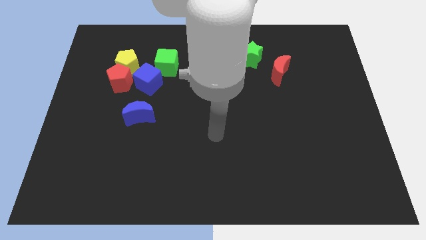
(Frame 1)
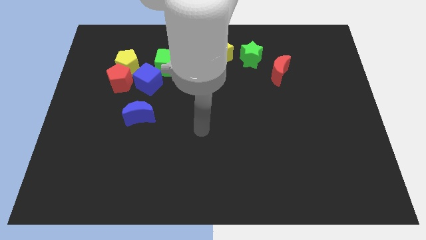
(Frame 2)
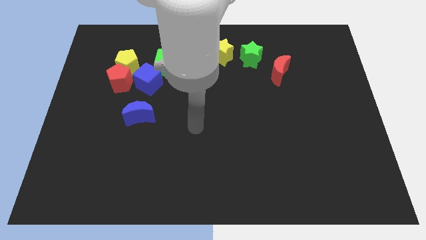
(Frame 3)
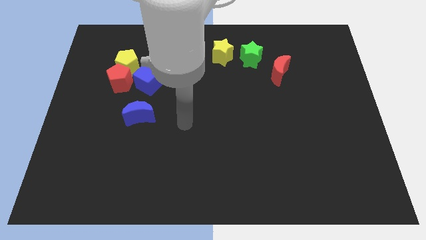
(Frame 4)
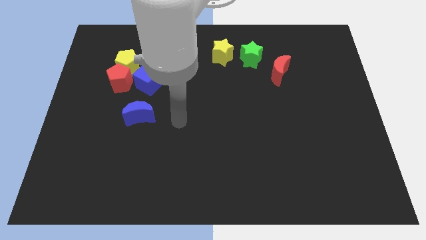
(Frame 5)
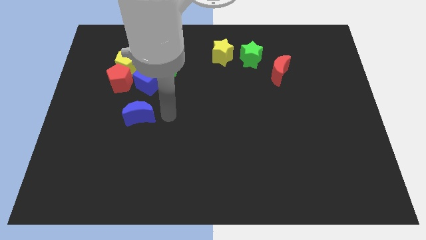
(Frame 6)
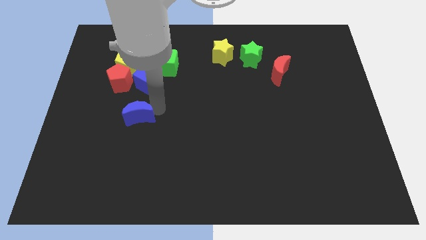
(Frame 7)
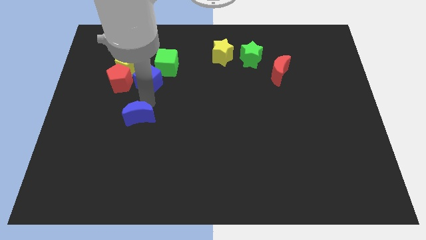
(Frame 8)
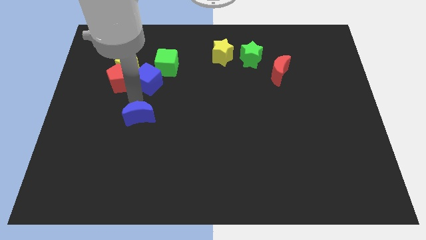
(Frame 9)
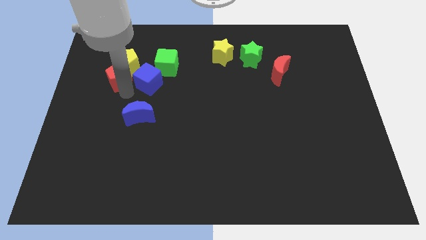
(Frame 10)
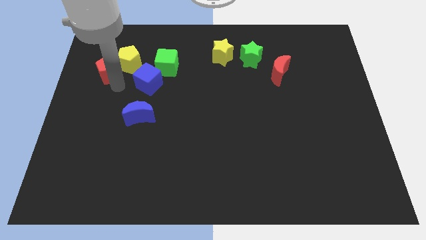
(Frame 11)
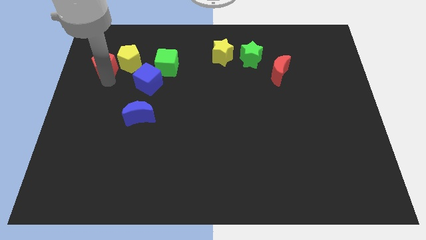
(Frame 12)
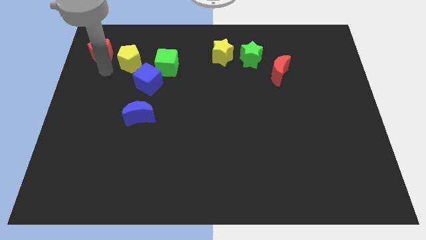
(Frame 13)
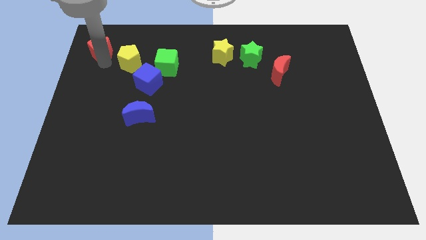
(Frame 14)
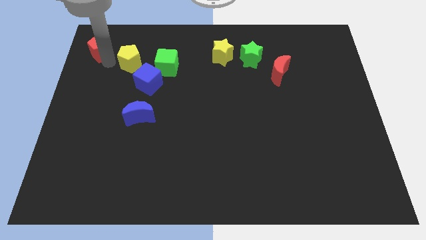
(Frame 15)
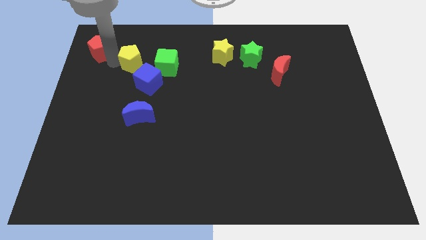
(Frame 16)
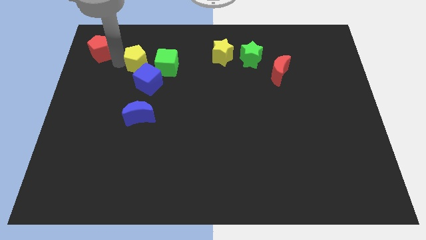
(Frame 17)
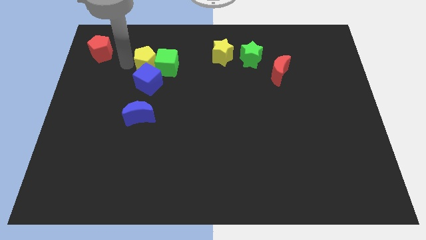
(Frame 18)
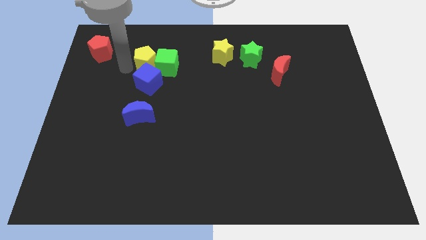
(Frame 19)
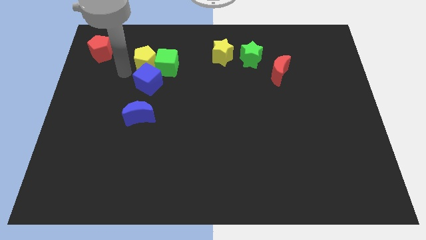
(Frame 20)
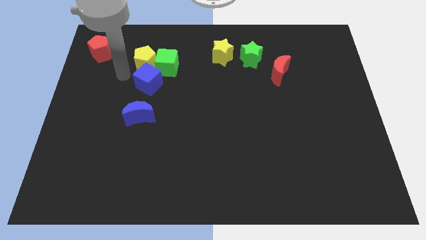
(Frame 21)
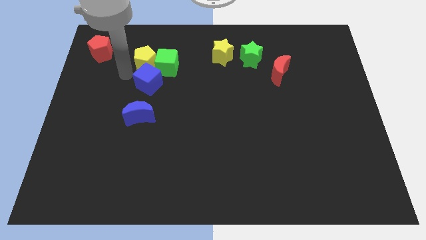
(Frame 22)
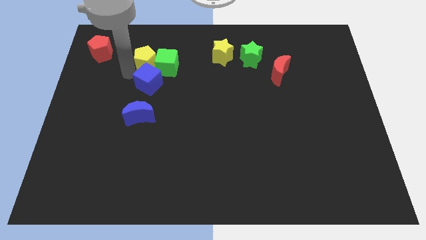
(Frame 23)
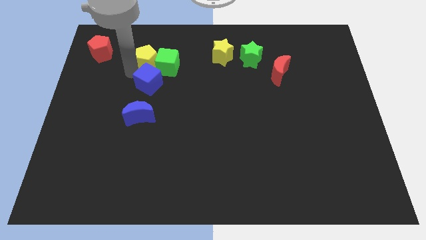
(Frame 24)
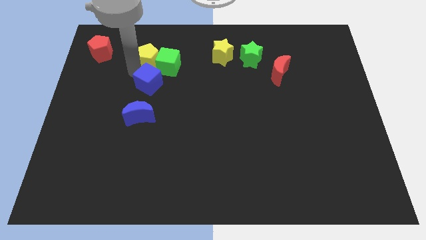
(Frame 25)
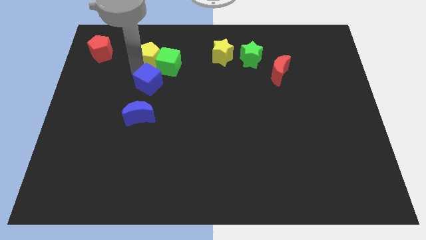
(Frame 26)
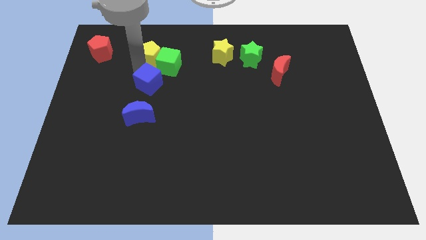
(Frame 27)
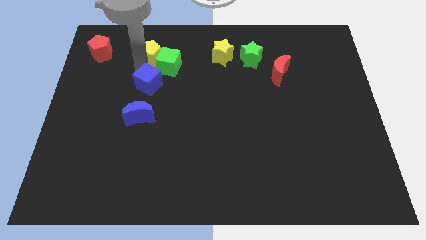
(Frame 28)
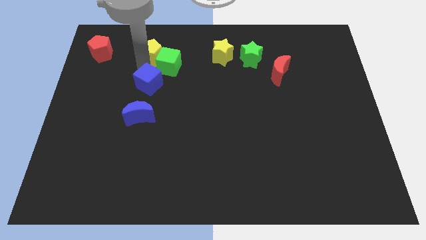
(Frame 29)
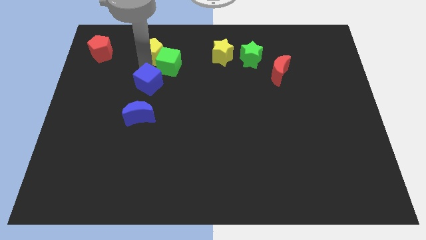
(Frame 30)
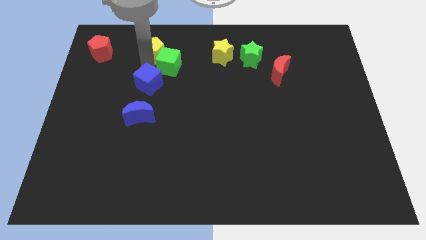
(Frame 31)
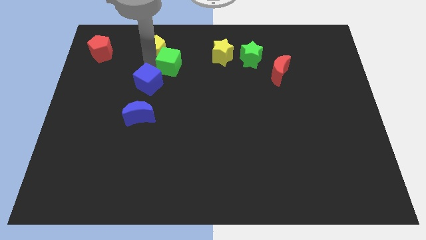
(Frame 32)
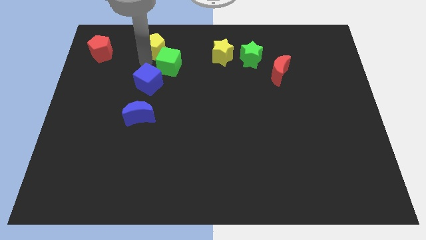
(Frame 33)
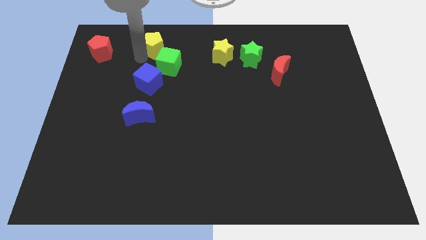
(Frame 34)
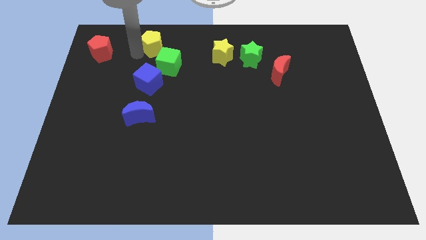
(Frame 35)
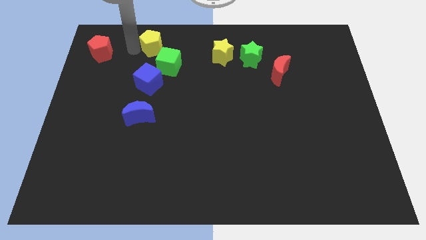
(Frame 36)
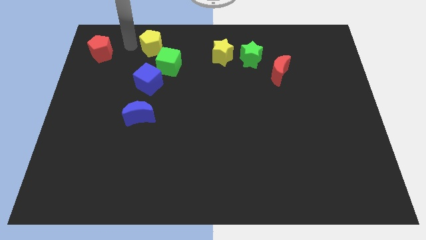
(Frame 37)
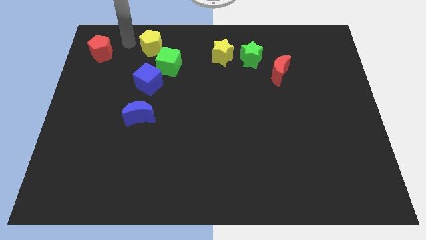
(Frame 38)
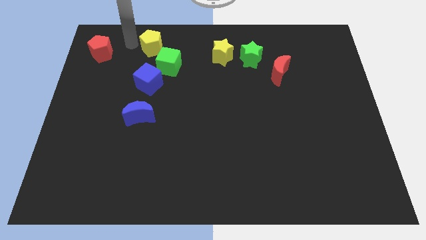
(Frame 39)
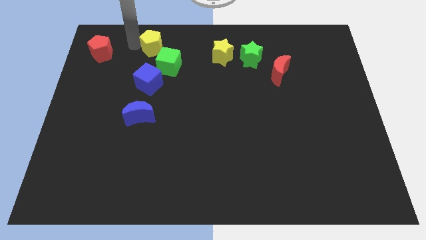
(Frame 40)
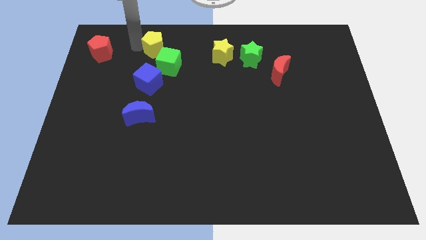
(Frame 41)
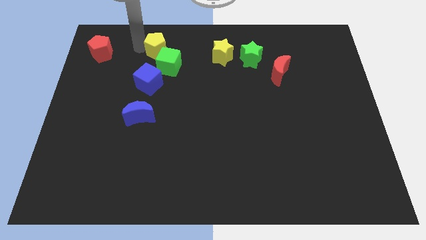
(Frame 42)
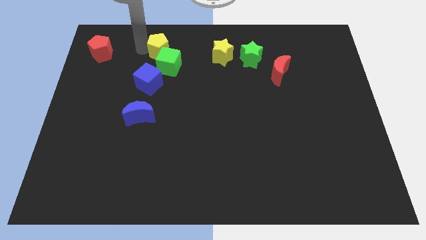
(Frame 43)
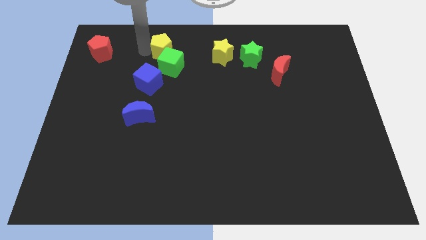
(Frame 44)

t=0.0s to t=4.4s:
slide the yellow pentagon somewhat to the right

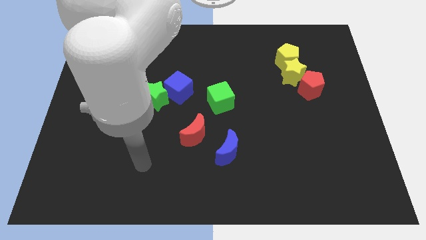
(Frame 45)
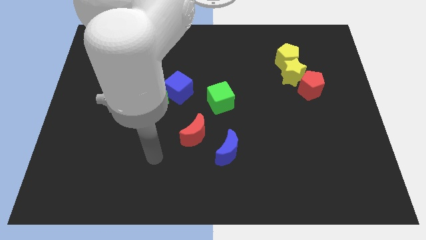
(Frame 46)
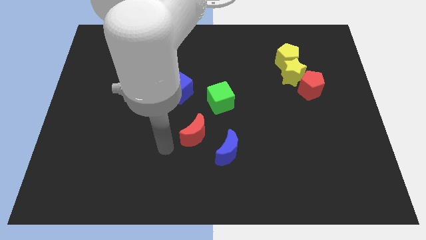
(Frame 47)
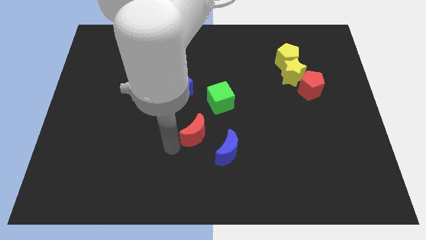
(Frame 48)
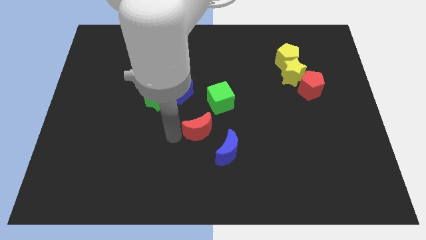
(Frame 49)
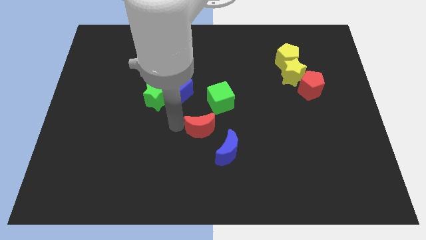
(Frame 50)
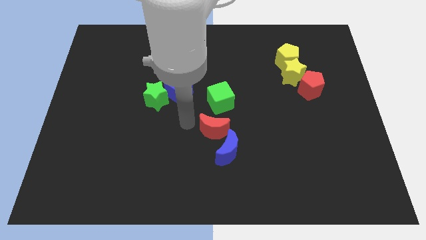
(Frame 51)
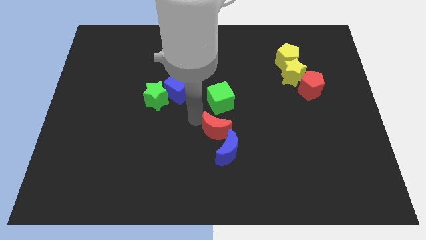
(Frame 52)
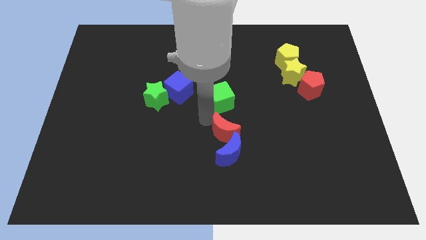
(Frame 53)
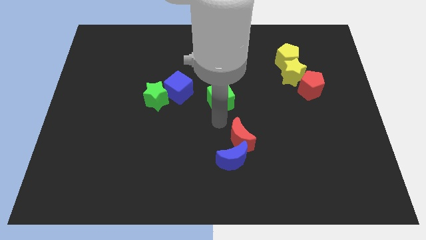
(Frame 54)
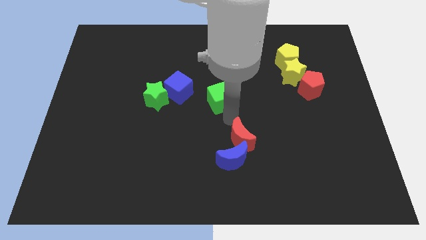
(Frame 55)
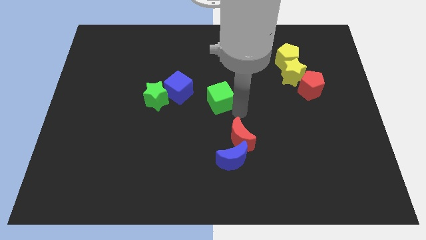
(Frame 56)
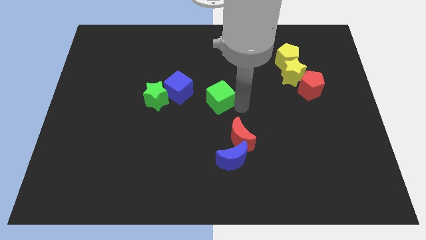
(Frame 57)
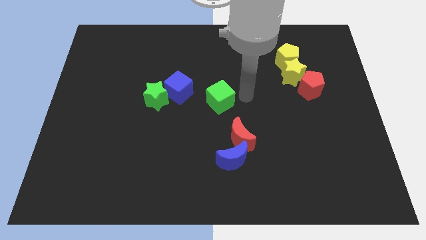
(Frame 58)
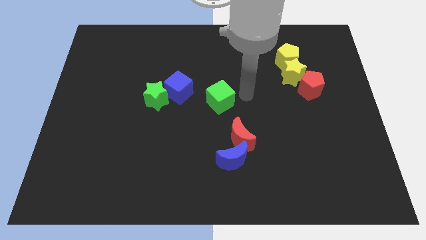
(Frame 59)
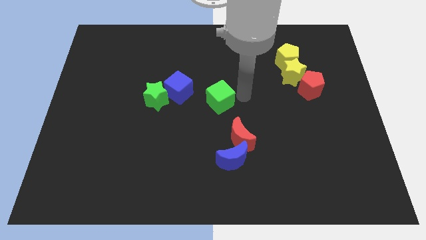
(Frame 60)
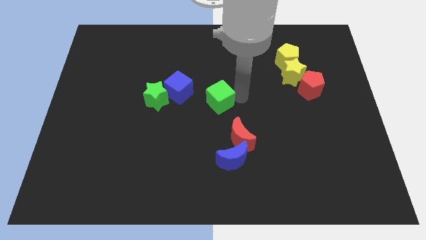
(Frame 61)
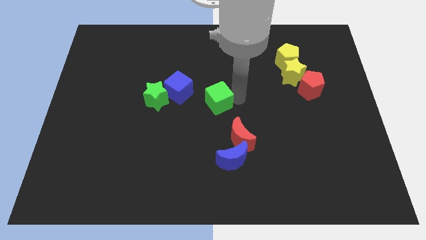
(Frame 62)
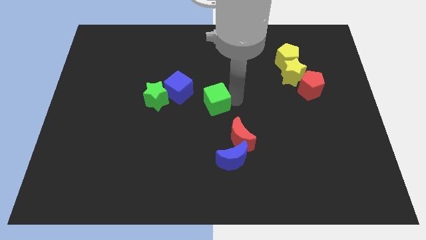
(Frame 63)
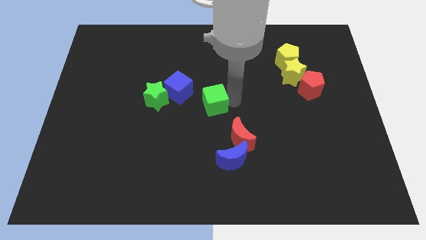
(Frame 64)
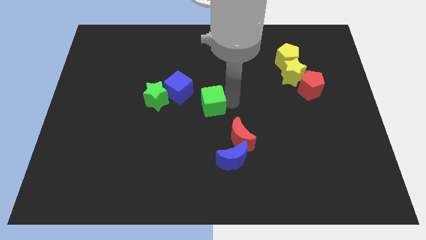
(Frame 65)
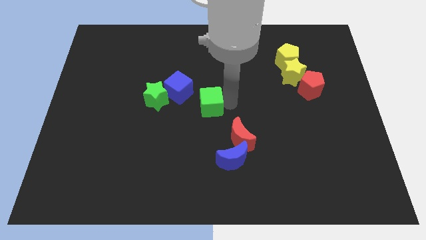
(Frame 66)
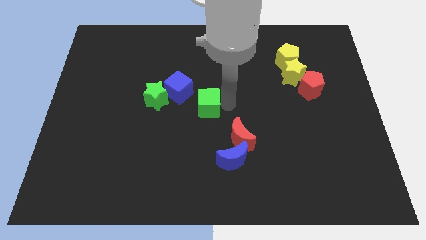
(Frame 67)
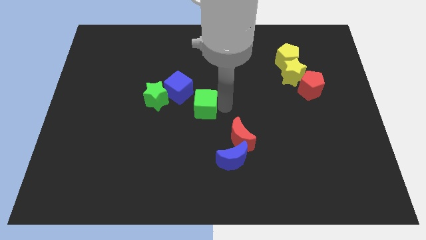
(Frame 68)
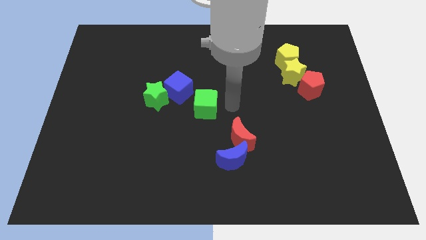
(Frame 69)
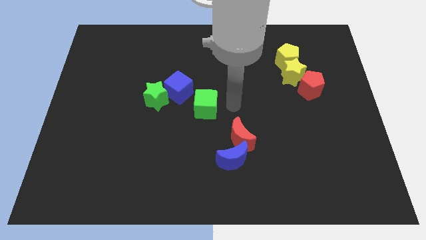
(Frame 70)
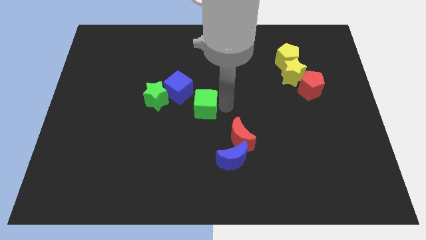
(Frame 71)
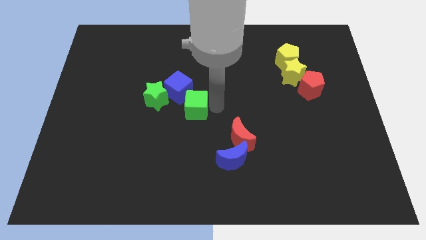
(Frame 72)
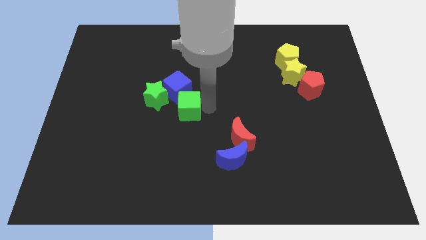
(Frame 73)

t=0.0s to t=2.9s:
move the green cube to the left somewhat

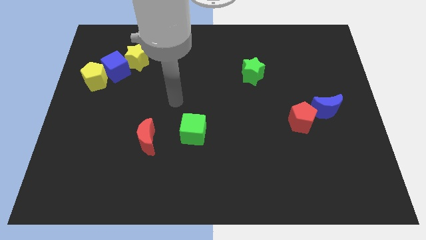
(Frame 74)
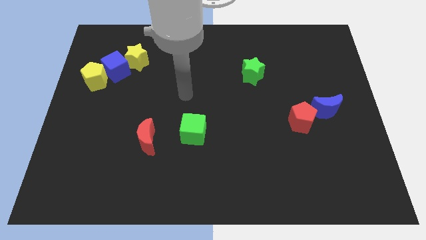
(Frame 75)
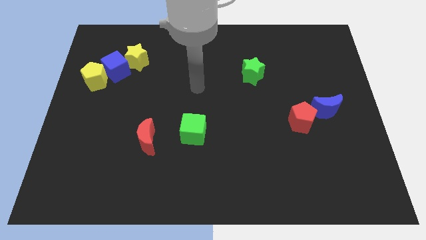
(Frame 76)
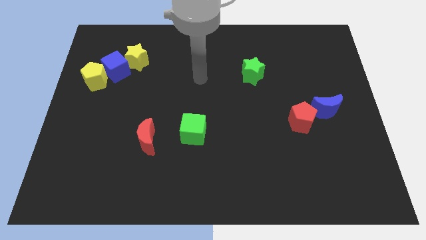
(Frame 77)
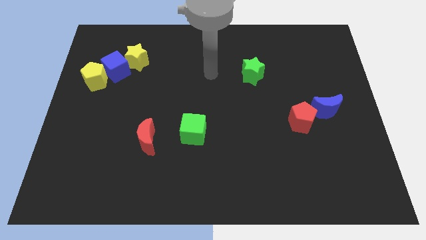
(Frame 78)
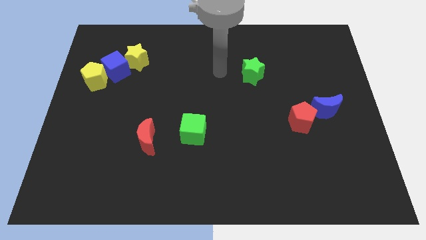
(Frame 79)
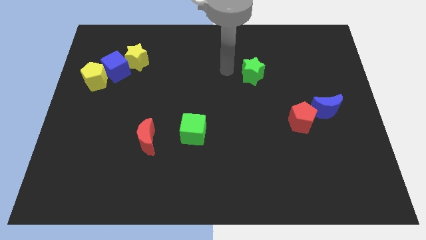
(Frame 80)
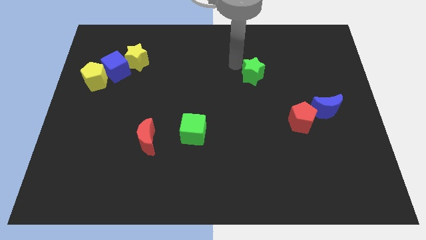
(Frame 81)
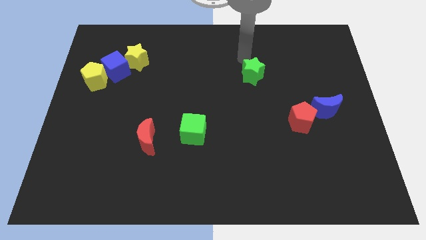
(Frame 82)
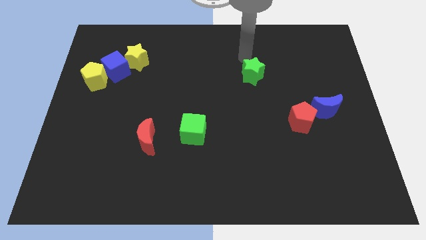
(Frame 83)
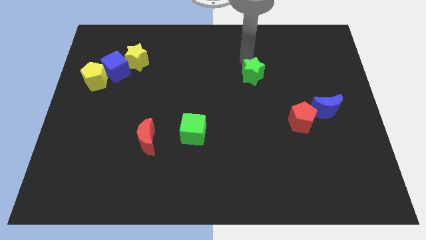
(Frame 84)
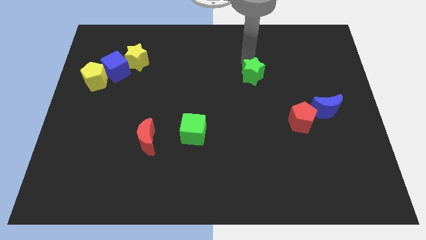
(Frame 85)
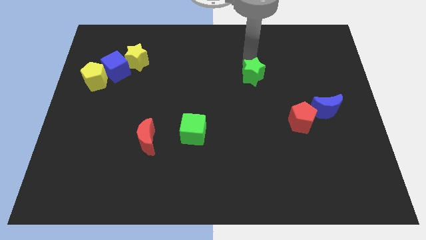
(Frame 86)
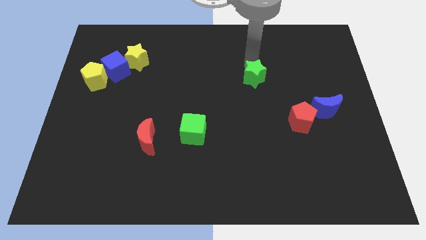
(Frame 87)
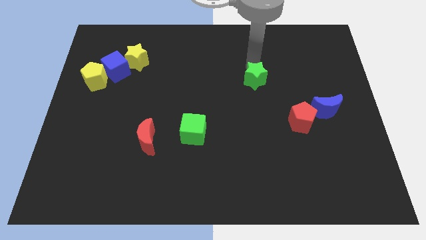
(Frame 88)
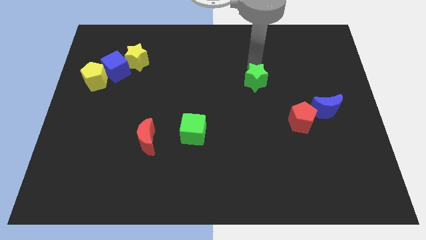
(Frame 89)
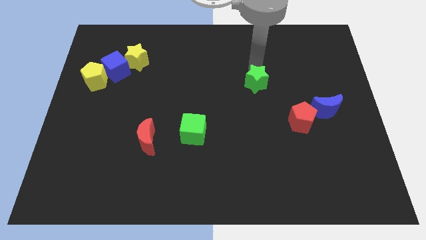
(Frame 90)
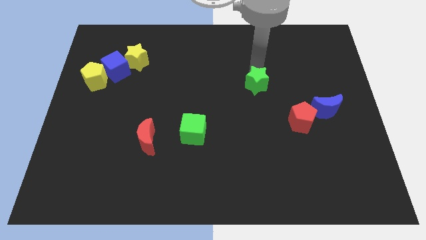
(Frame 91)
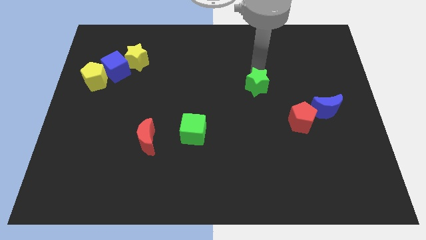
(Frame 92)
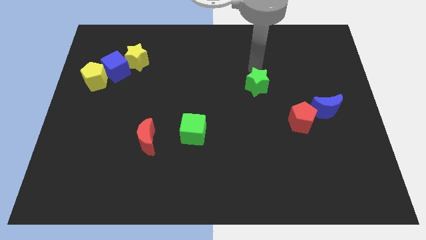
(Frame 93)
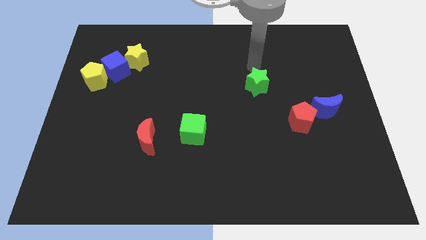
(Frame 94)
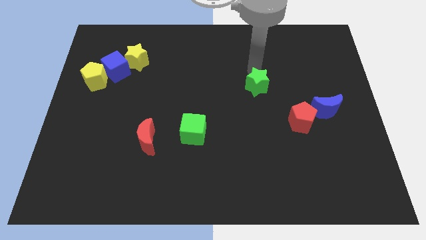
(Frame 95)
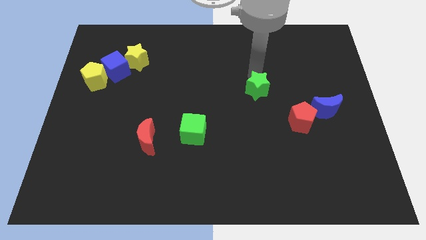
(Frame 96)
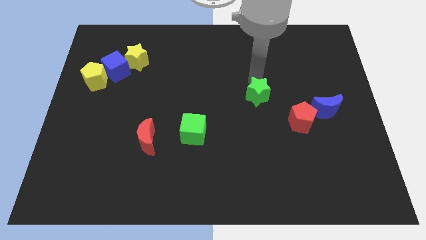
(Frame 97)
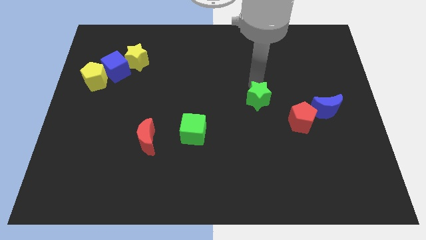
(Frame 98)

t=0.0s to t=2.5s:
move the green star a little bit downwards
